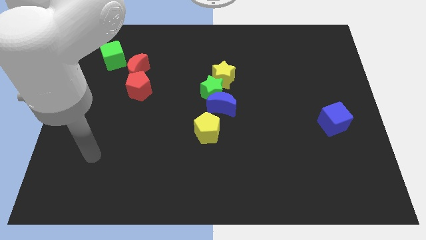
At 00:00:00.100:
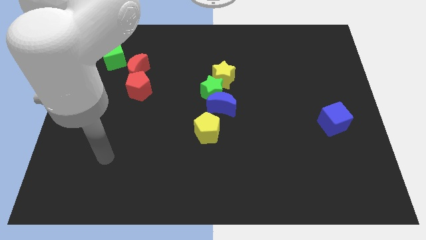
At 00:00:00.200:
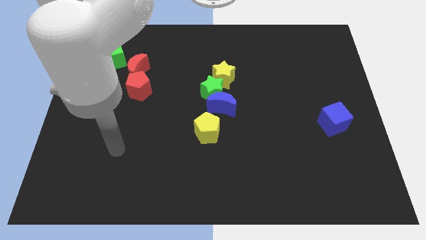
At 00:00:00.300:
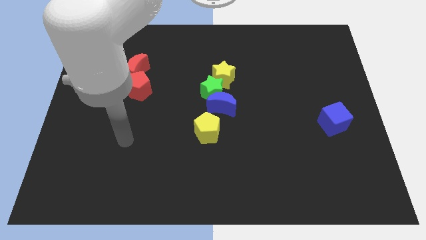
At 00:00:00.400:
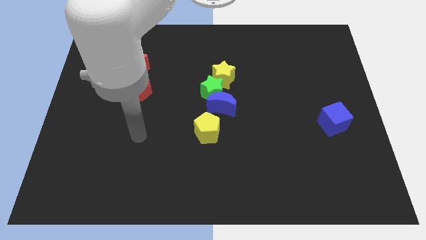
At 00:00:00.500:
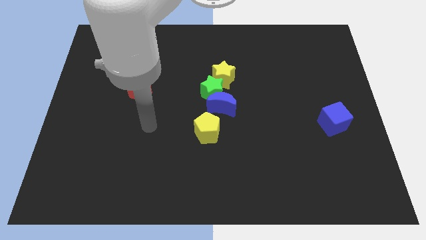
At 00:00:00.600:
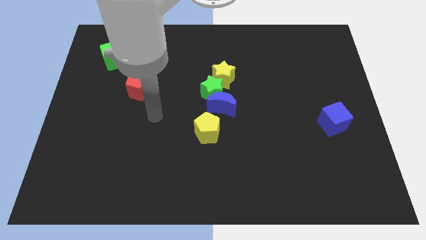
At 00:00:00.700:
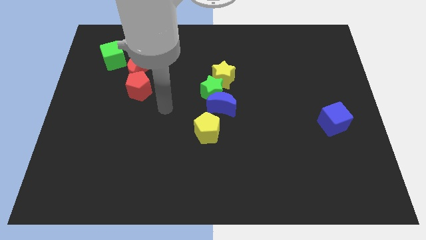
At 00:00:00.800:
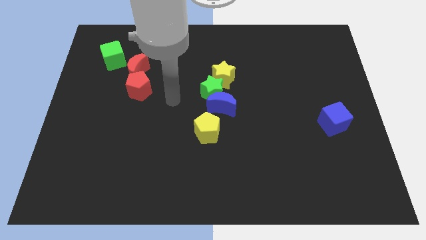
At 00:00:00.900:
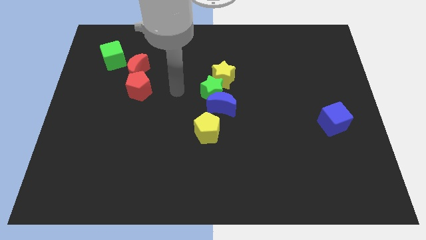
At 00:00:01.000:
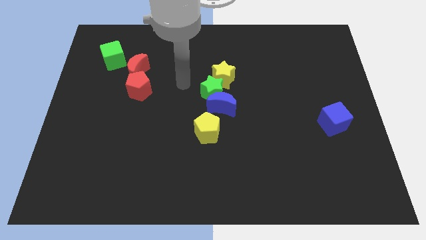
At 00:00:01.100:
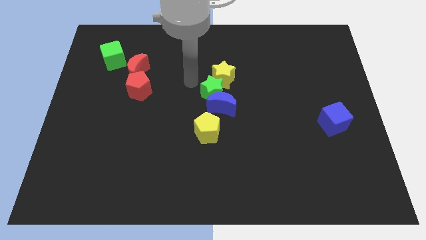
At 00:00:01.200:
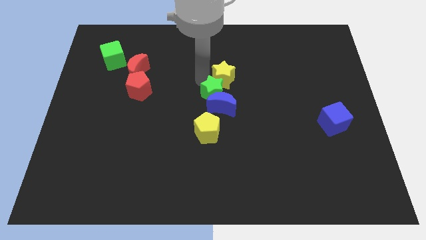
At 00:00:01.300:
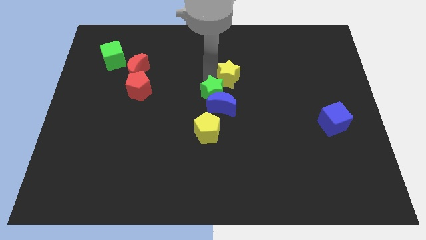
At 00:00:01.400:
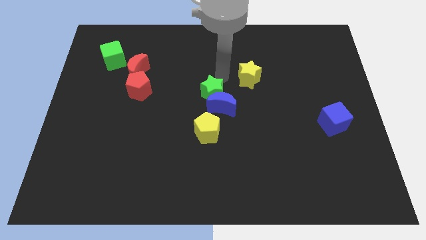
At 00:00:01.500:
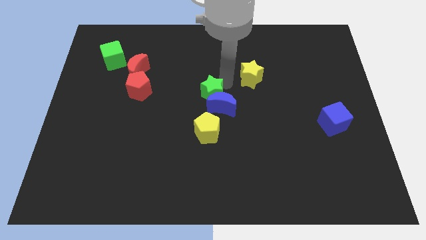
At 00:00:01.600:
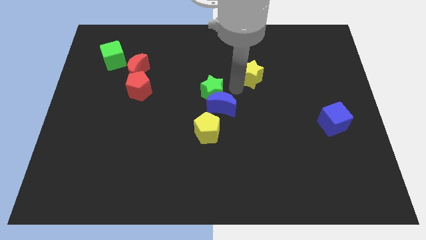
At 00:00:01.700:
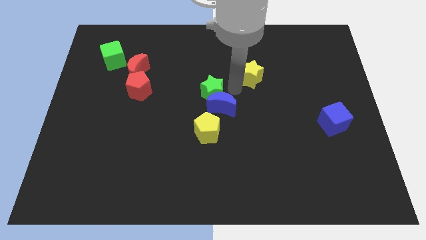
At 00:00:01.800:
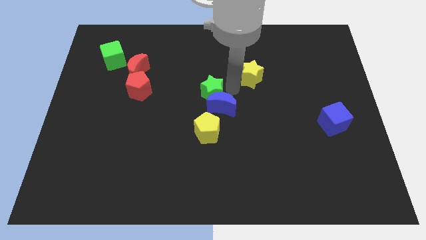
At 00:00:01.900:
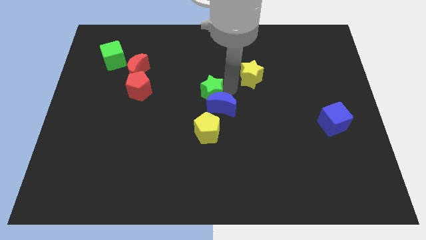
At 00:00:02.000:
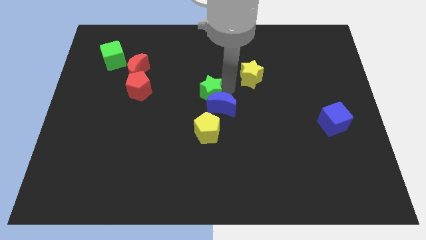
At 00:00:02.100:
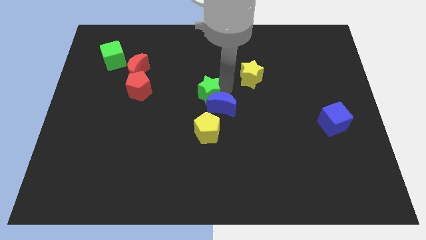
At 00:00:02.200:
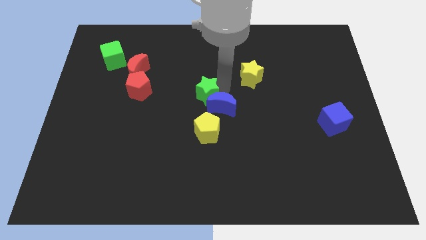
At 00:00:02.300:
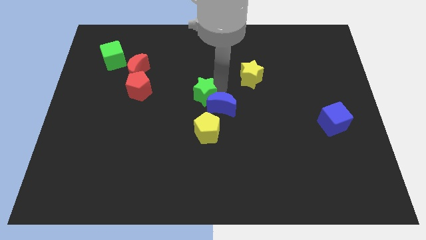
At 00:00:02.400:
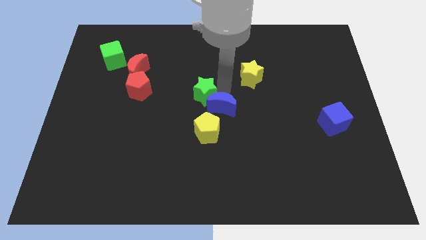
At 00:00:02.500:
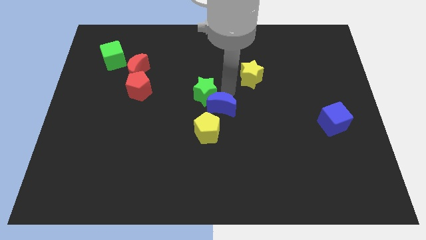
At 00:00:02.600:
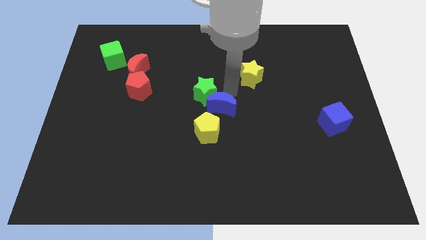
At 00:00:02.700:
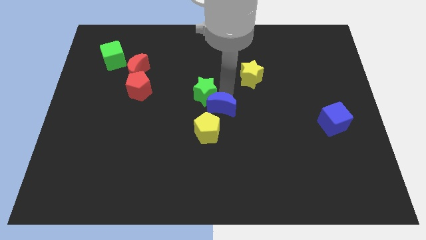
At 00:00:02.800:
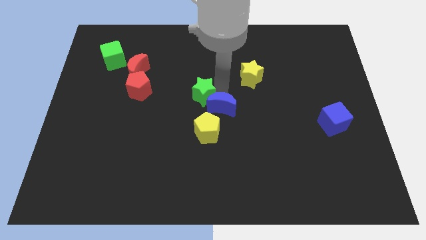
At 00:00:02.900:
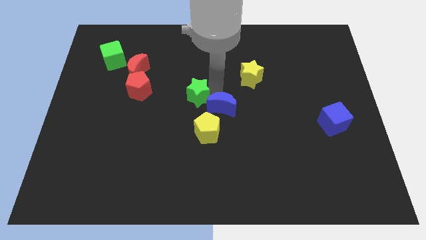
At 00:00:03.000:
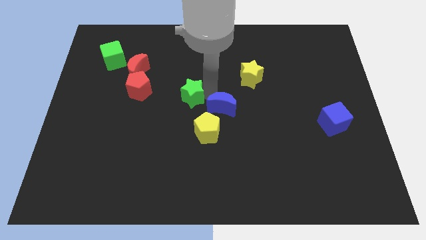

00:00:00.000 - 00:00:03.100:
move the green star away from the blue moon and yellow star

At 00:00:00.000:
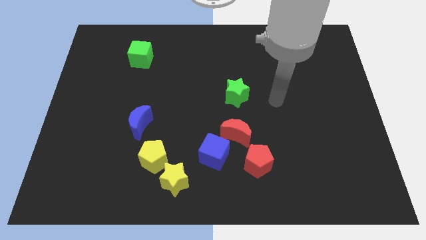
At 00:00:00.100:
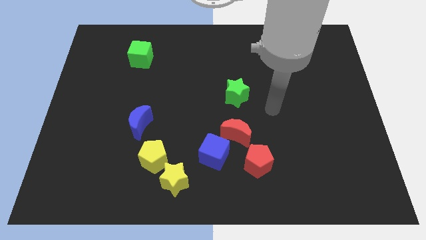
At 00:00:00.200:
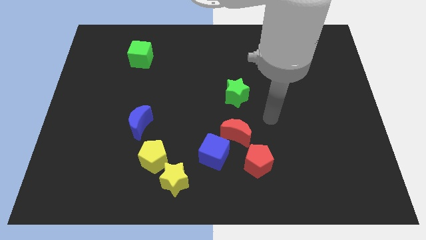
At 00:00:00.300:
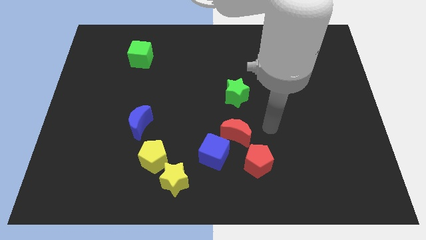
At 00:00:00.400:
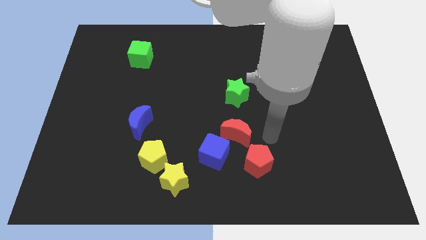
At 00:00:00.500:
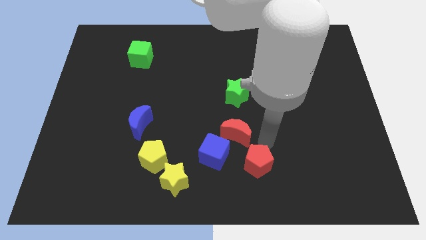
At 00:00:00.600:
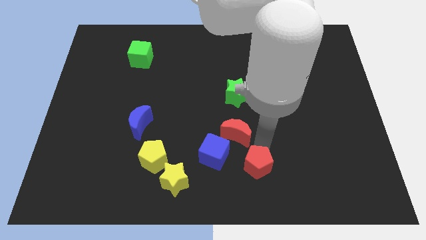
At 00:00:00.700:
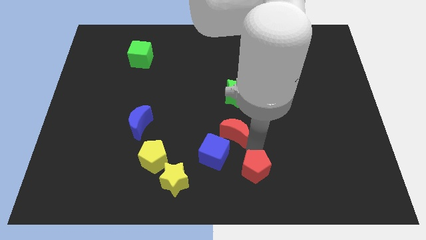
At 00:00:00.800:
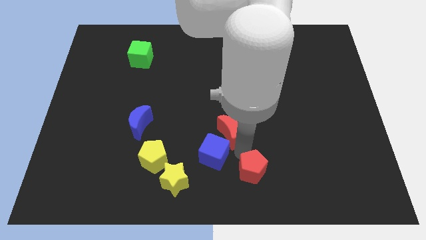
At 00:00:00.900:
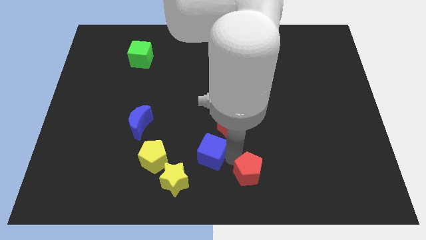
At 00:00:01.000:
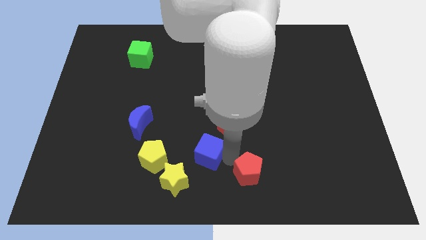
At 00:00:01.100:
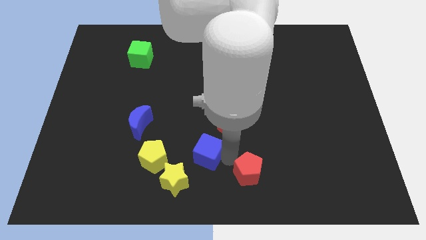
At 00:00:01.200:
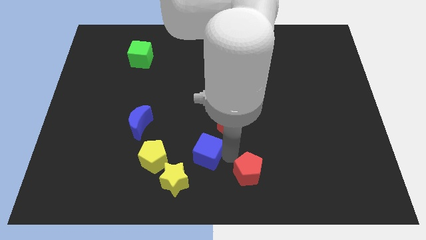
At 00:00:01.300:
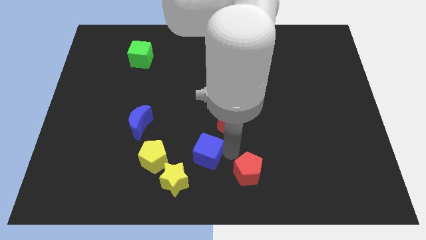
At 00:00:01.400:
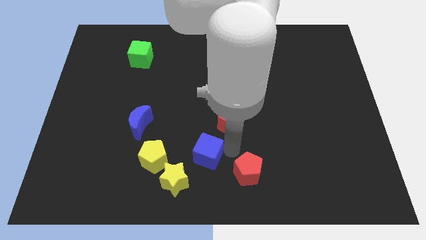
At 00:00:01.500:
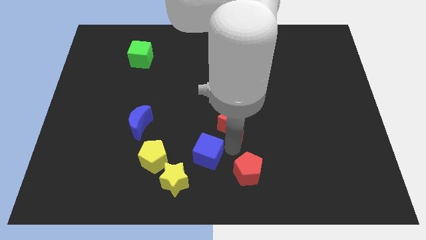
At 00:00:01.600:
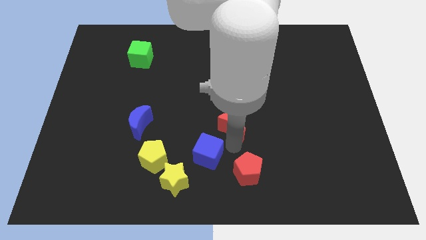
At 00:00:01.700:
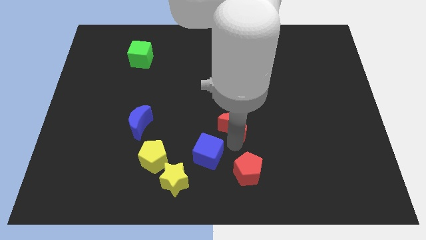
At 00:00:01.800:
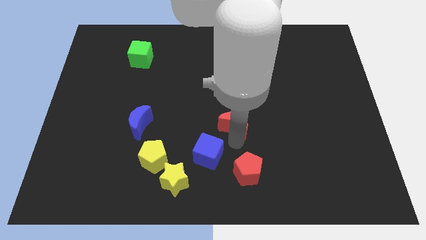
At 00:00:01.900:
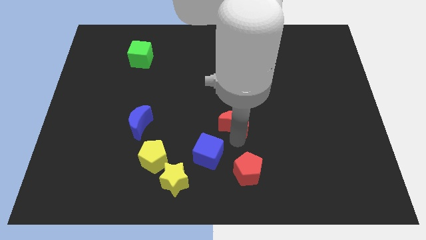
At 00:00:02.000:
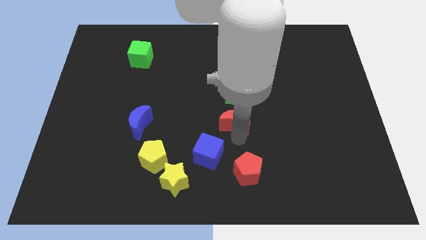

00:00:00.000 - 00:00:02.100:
pull the red moon apart from the blue cube and red pentagon

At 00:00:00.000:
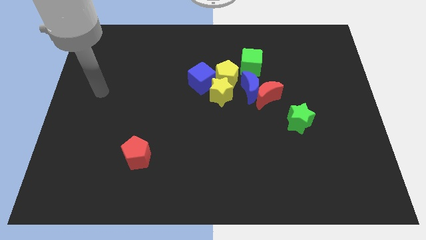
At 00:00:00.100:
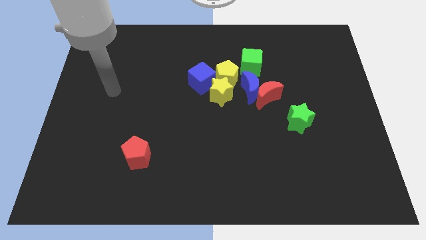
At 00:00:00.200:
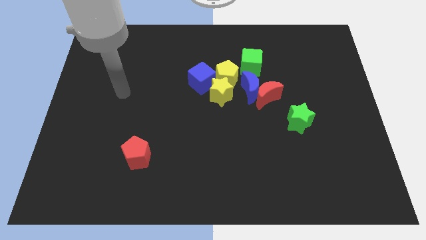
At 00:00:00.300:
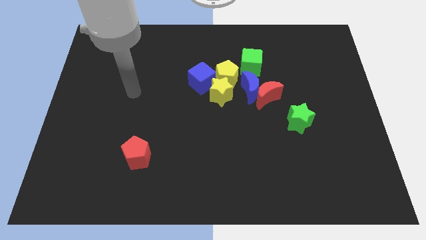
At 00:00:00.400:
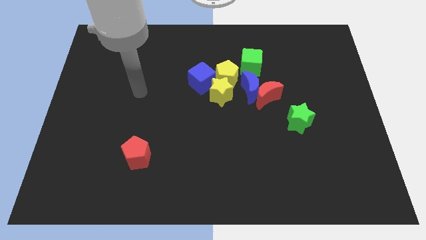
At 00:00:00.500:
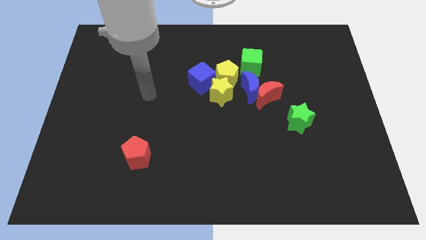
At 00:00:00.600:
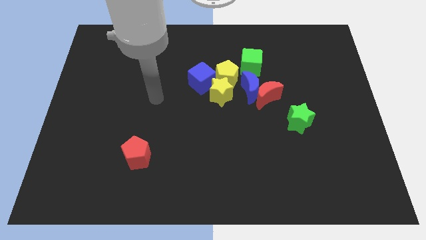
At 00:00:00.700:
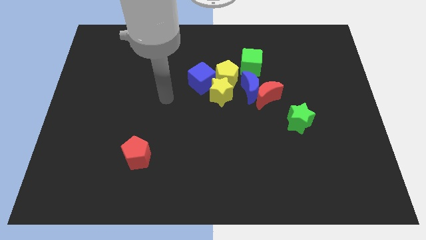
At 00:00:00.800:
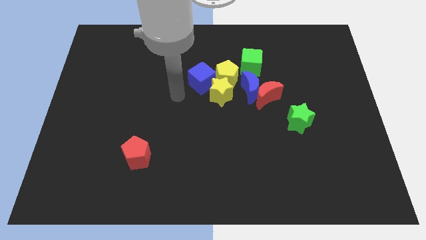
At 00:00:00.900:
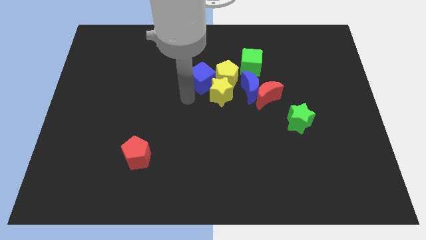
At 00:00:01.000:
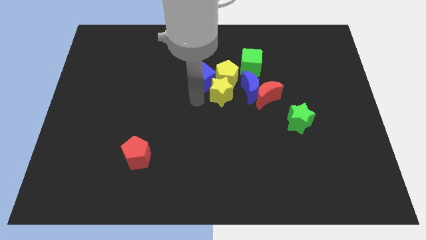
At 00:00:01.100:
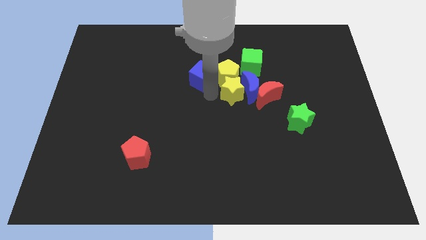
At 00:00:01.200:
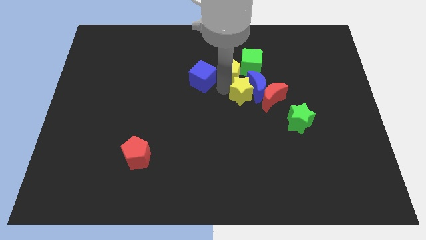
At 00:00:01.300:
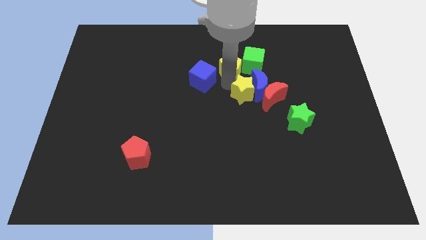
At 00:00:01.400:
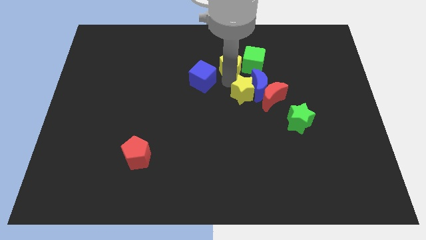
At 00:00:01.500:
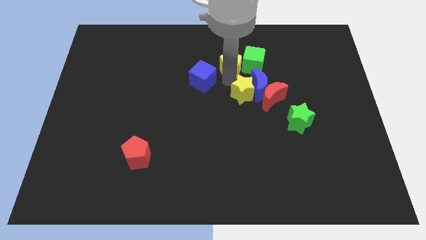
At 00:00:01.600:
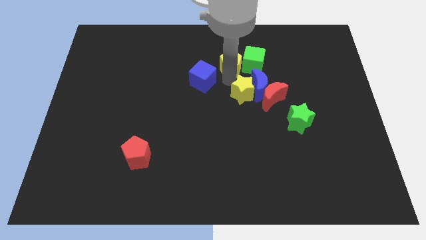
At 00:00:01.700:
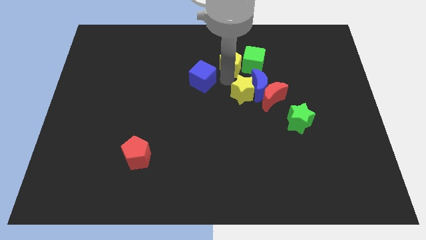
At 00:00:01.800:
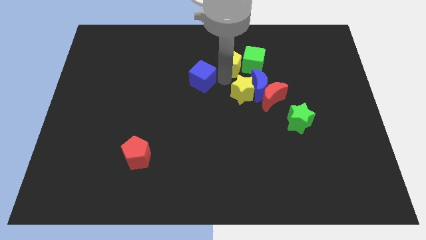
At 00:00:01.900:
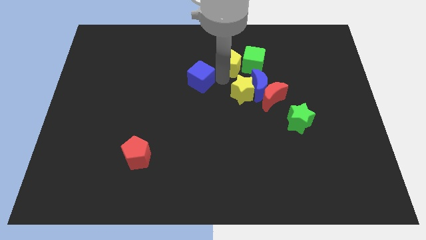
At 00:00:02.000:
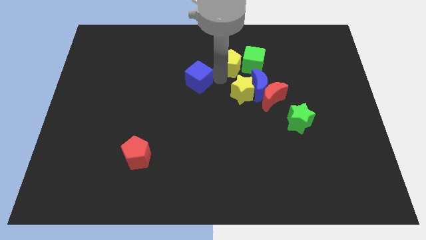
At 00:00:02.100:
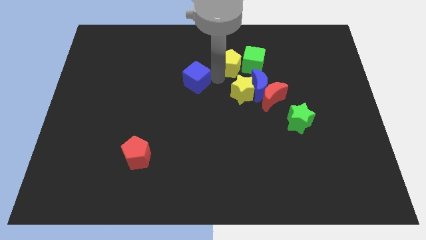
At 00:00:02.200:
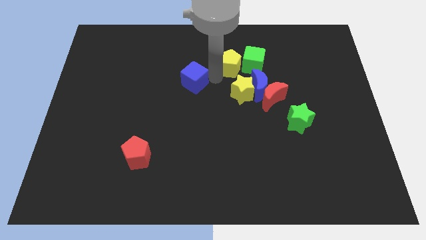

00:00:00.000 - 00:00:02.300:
move the blue cube away from the yellow pentagon and yellow star

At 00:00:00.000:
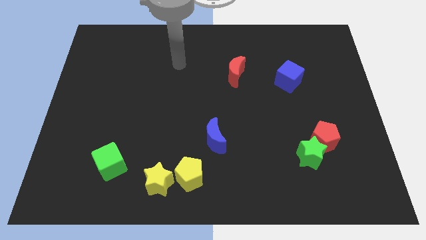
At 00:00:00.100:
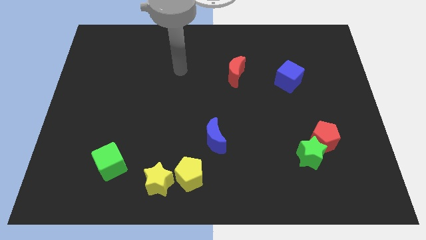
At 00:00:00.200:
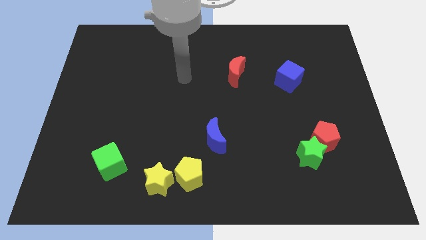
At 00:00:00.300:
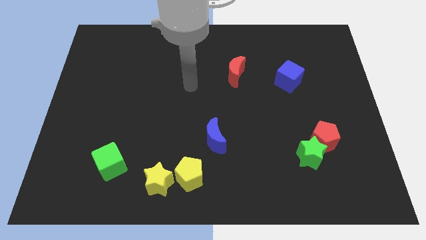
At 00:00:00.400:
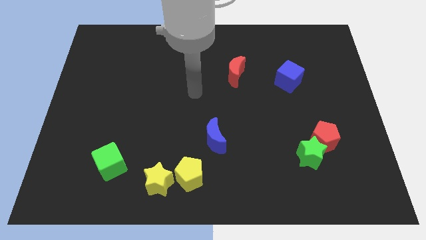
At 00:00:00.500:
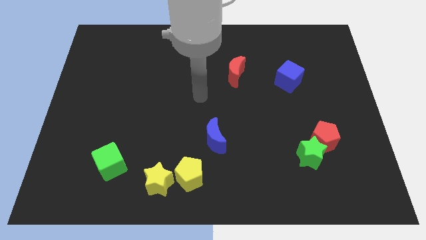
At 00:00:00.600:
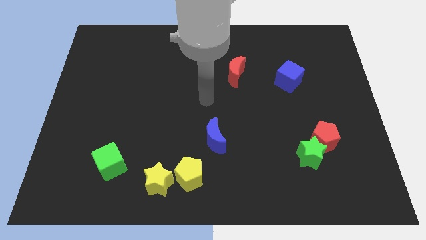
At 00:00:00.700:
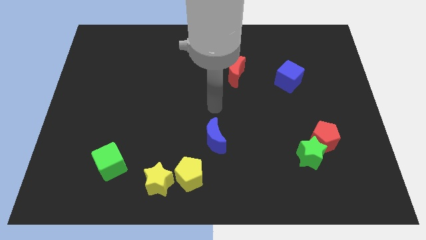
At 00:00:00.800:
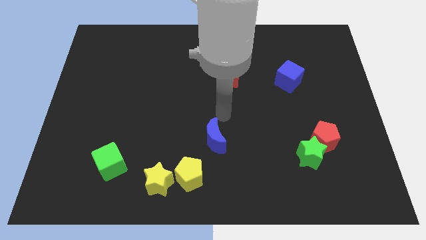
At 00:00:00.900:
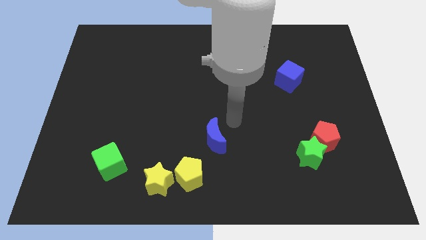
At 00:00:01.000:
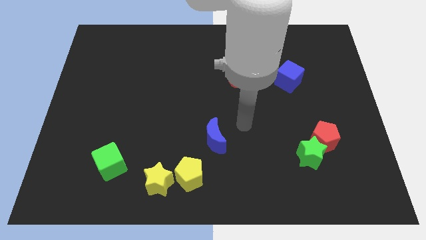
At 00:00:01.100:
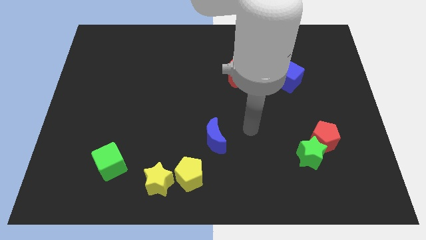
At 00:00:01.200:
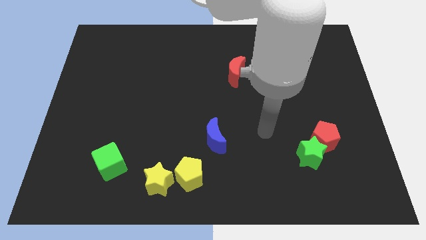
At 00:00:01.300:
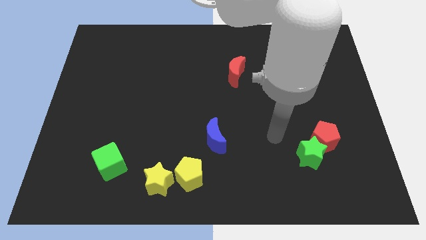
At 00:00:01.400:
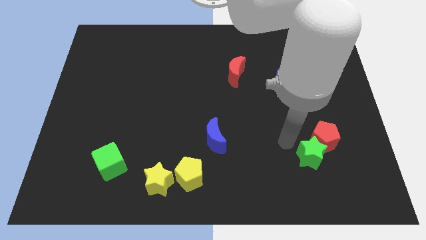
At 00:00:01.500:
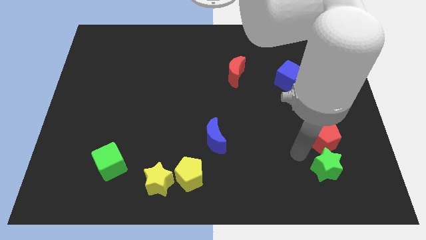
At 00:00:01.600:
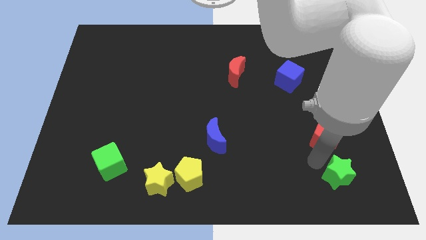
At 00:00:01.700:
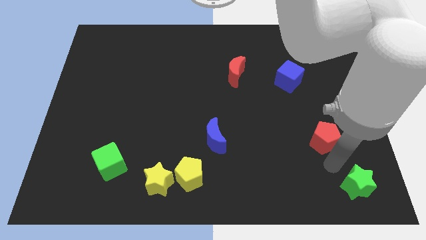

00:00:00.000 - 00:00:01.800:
separate the red pentagon from the green star
